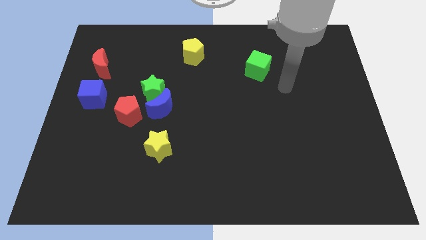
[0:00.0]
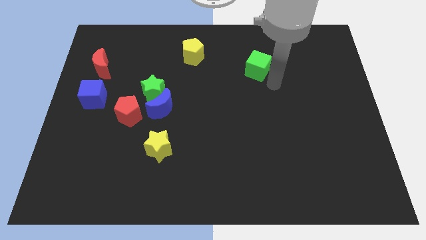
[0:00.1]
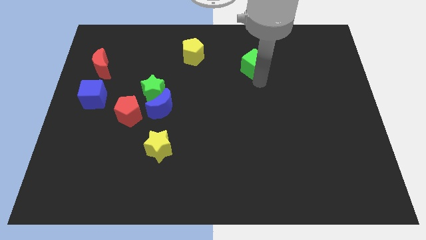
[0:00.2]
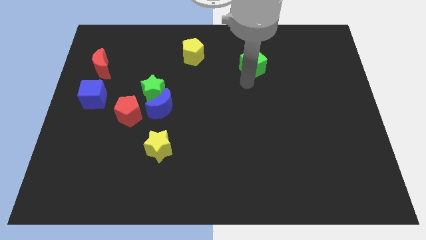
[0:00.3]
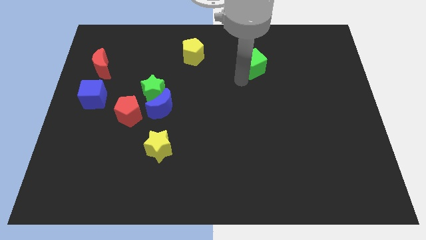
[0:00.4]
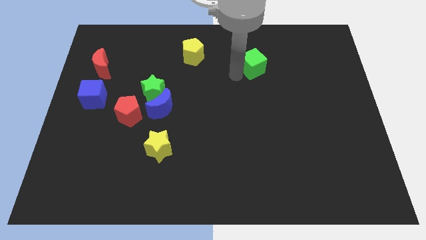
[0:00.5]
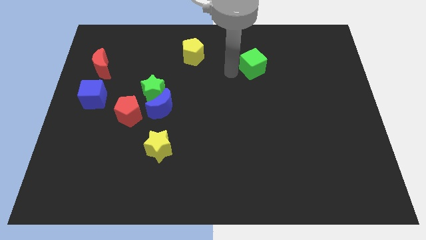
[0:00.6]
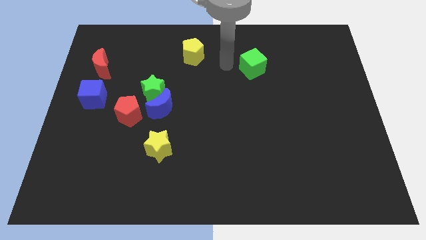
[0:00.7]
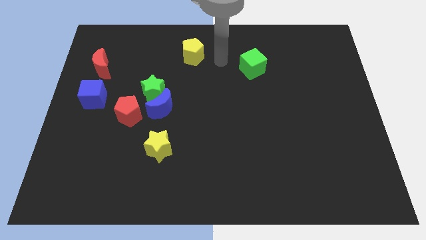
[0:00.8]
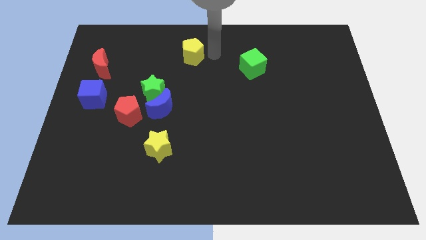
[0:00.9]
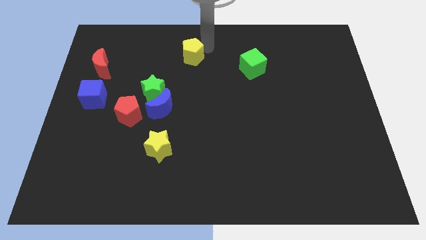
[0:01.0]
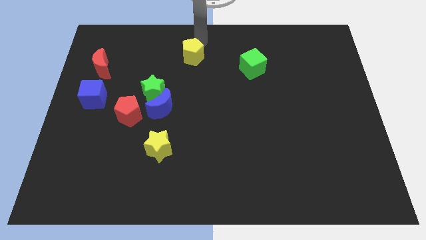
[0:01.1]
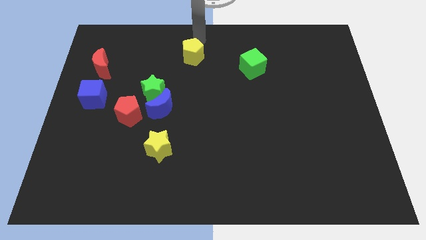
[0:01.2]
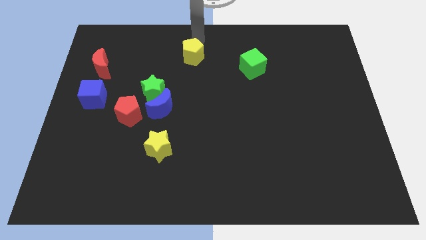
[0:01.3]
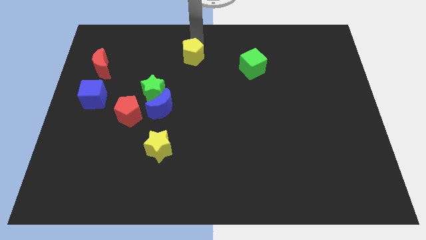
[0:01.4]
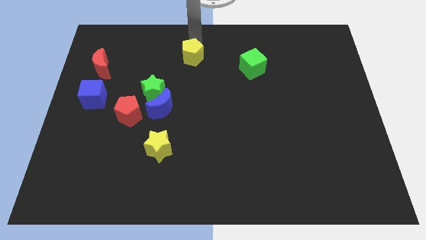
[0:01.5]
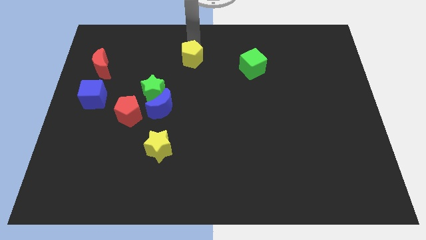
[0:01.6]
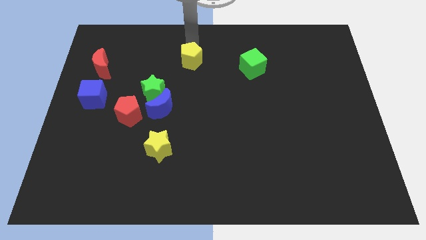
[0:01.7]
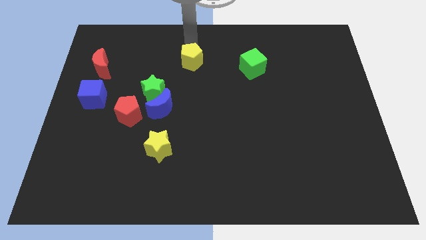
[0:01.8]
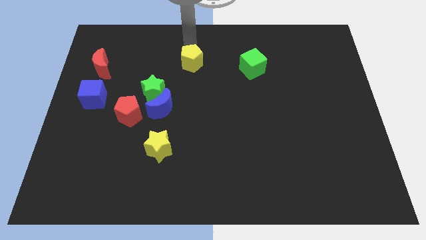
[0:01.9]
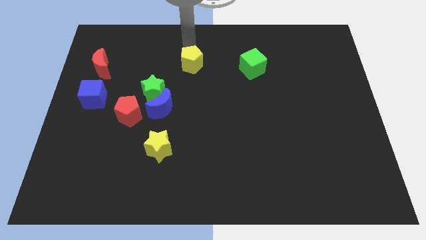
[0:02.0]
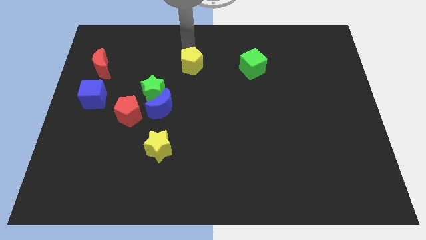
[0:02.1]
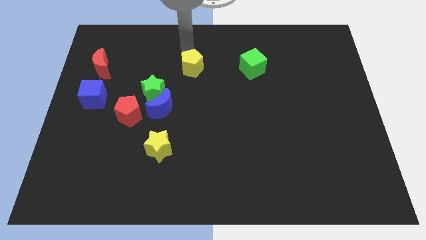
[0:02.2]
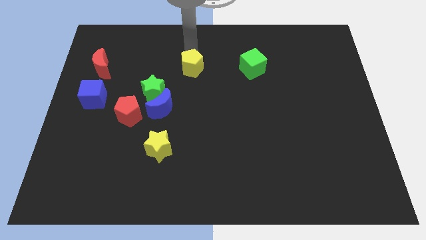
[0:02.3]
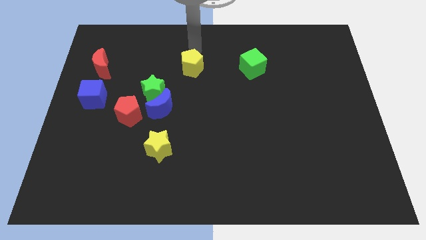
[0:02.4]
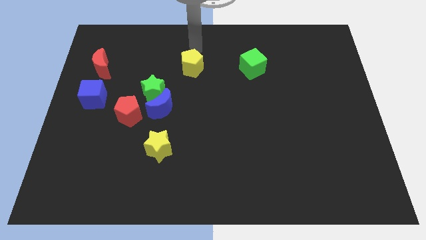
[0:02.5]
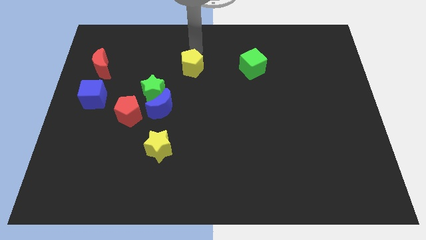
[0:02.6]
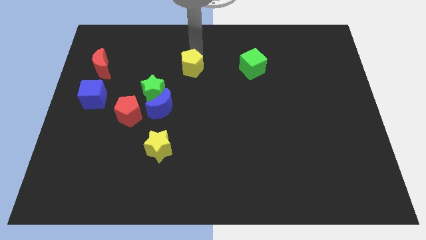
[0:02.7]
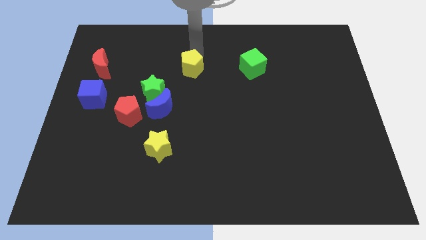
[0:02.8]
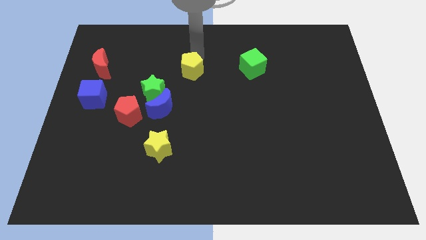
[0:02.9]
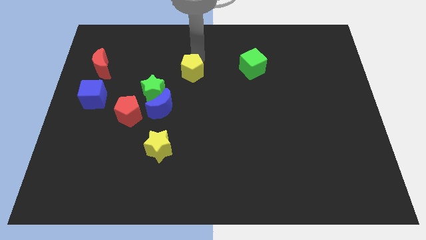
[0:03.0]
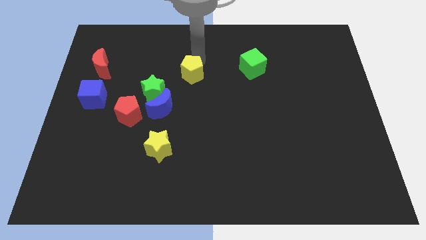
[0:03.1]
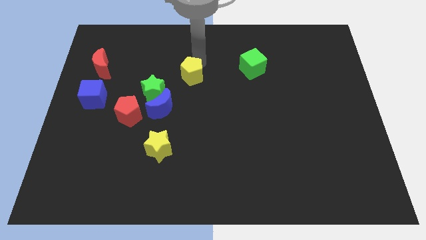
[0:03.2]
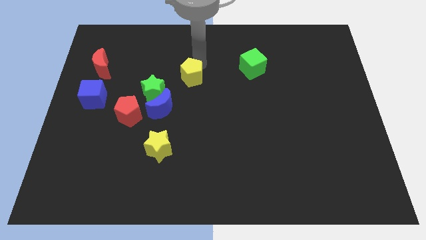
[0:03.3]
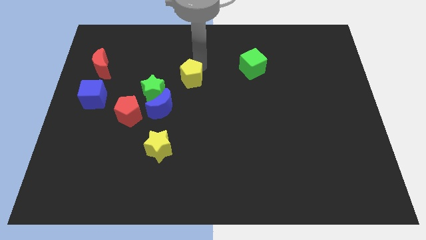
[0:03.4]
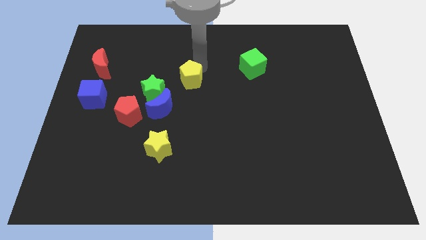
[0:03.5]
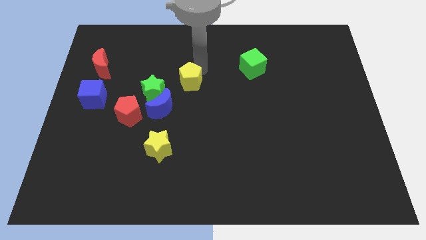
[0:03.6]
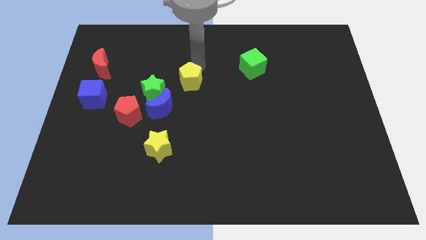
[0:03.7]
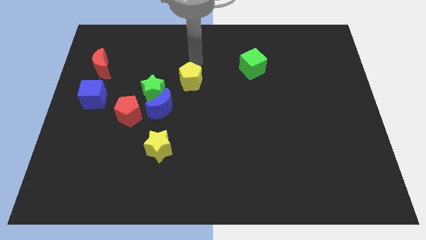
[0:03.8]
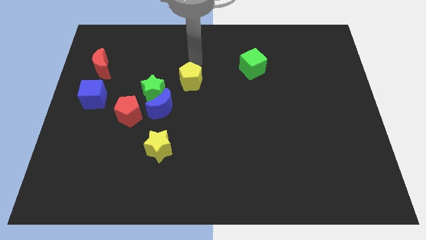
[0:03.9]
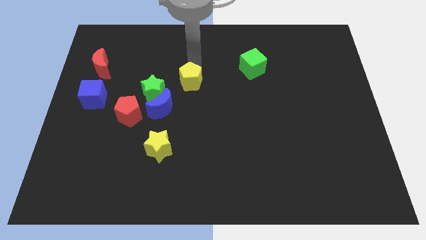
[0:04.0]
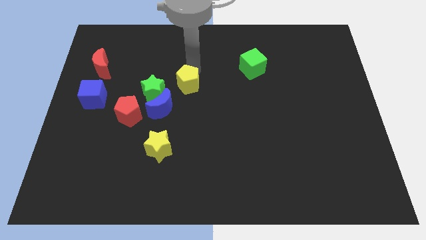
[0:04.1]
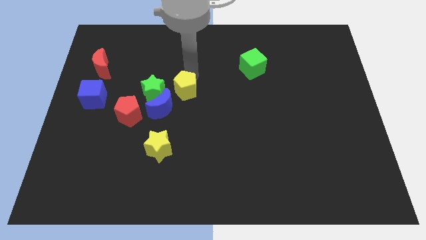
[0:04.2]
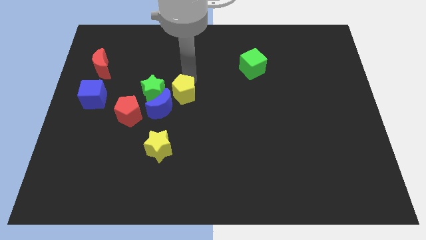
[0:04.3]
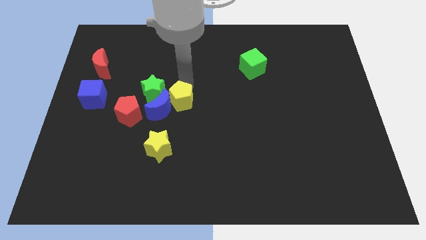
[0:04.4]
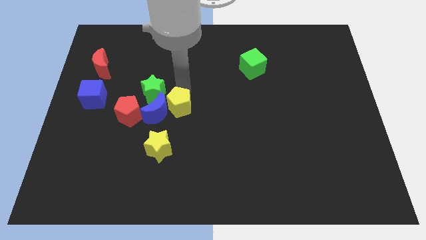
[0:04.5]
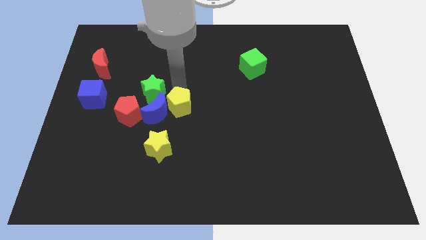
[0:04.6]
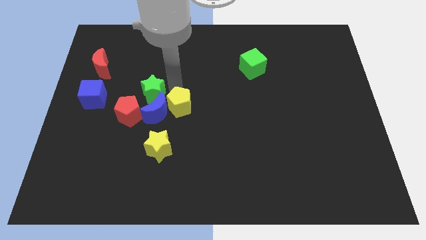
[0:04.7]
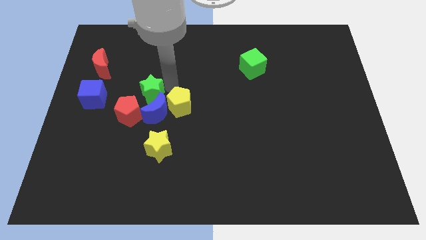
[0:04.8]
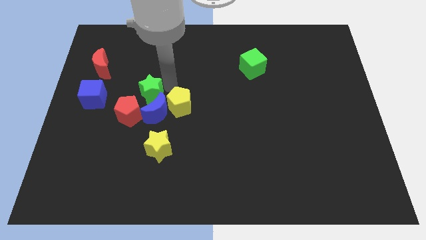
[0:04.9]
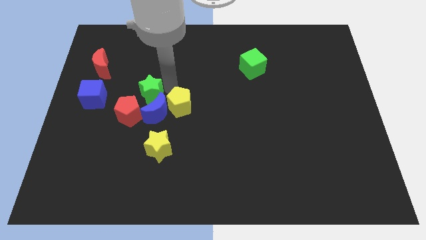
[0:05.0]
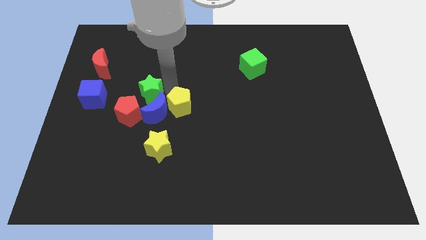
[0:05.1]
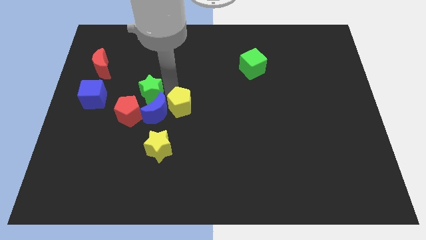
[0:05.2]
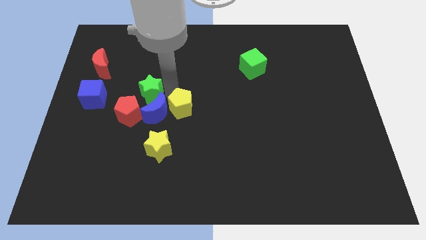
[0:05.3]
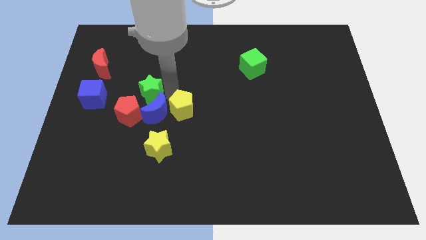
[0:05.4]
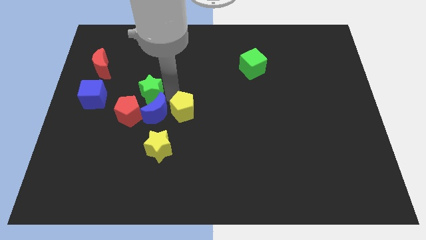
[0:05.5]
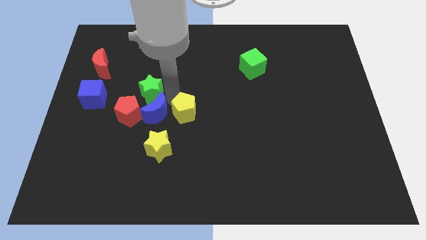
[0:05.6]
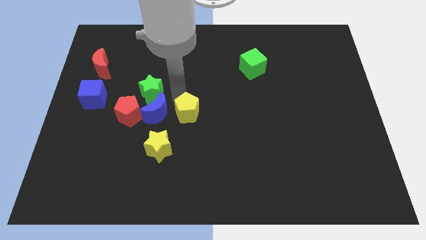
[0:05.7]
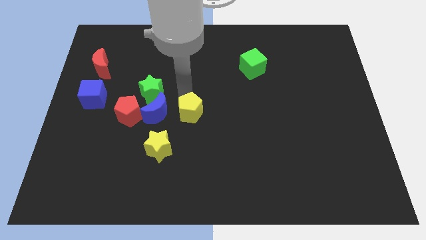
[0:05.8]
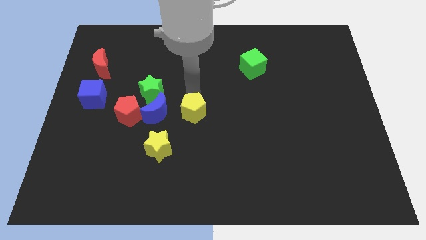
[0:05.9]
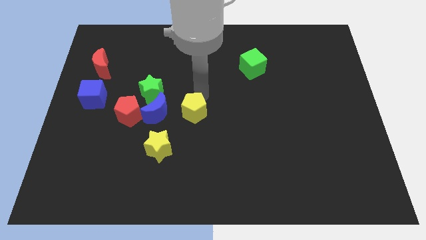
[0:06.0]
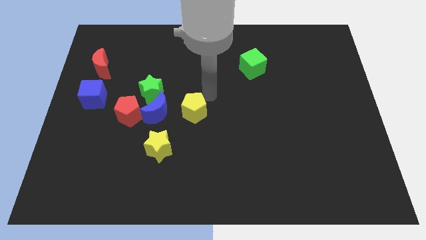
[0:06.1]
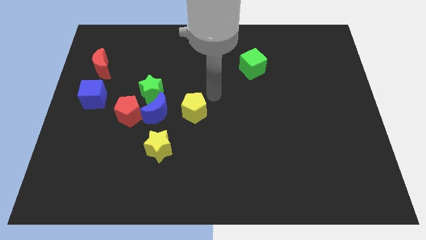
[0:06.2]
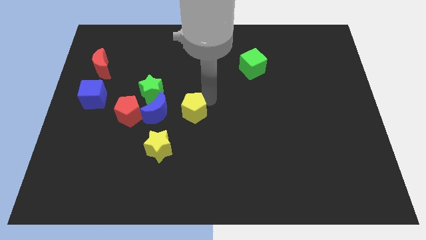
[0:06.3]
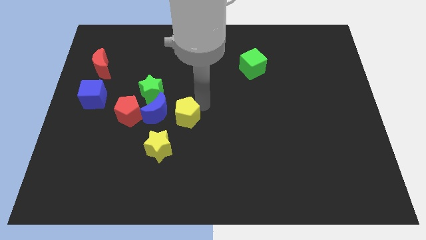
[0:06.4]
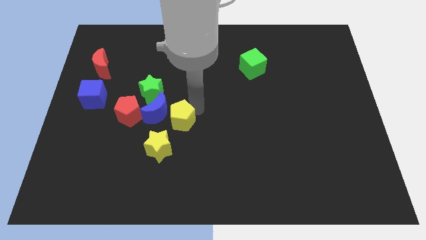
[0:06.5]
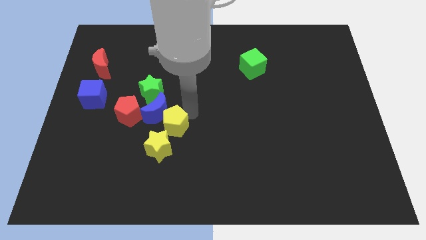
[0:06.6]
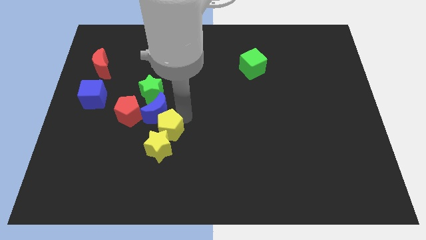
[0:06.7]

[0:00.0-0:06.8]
move the yellow pentagon close to the yellow star
